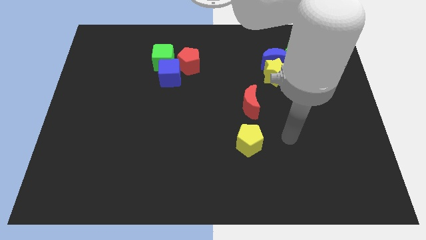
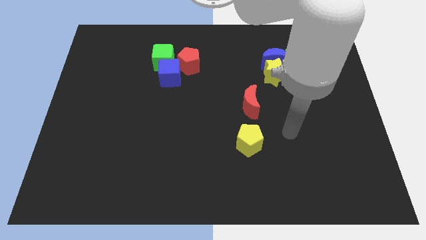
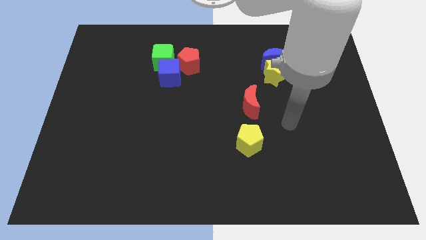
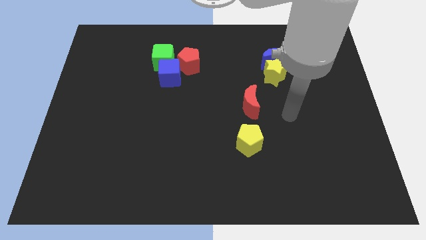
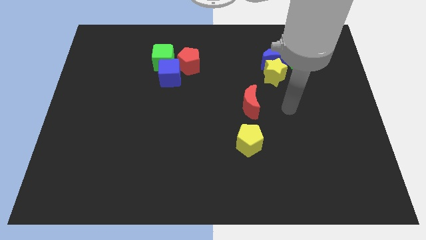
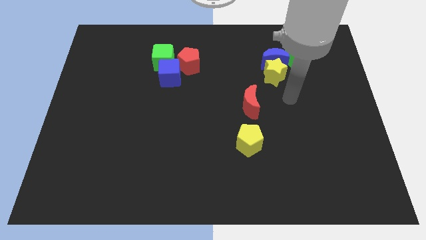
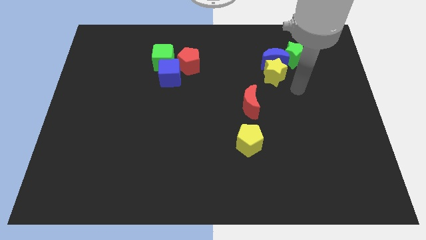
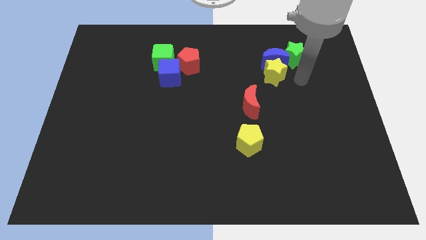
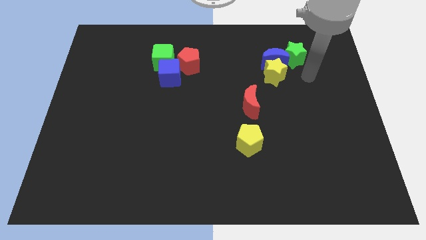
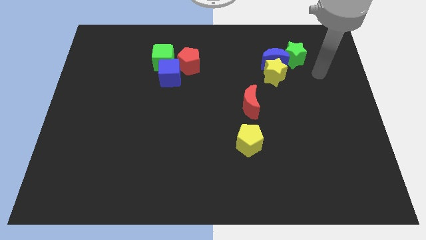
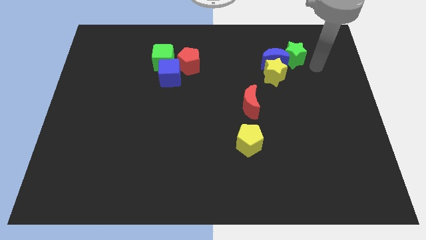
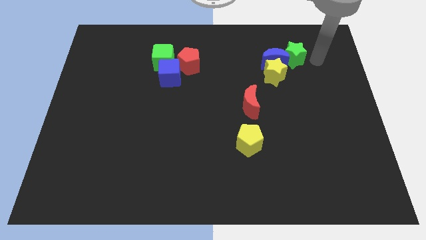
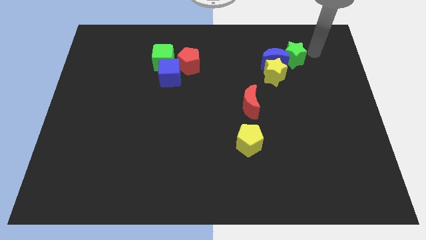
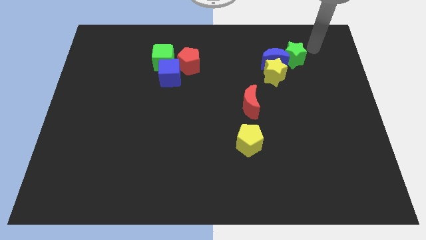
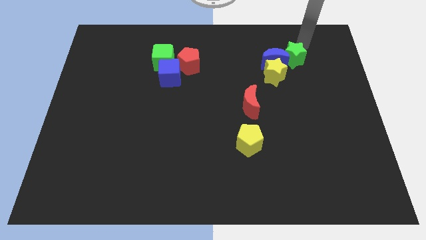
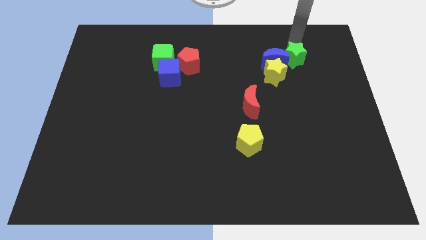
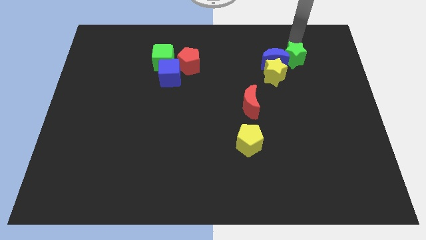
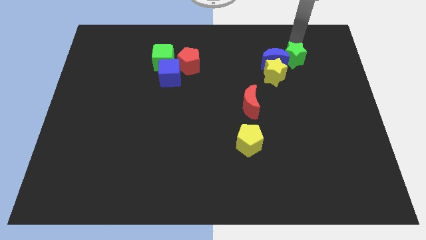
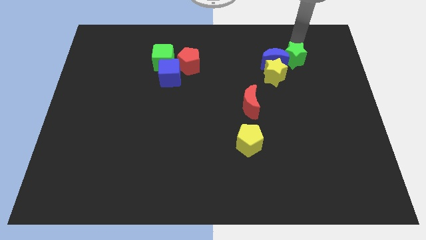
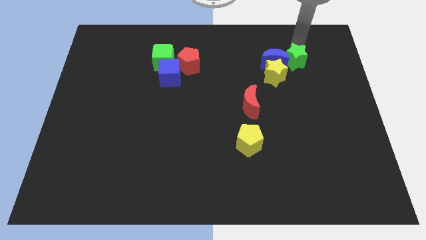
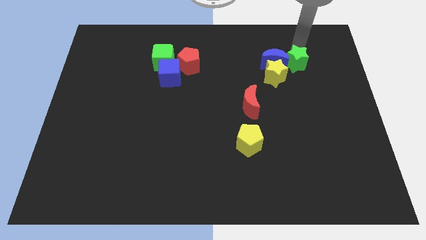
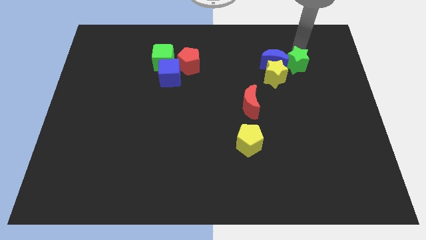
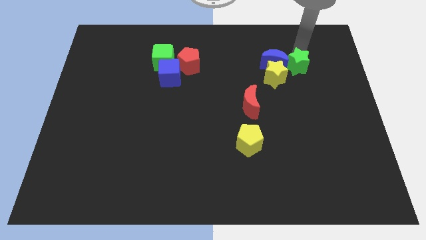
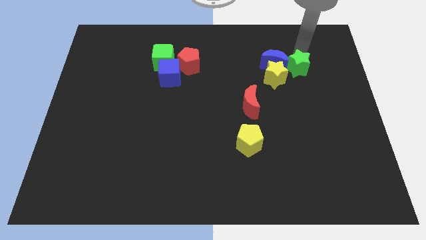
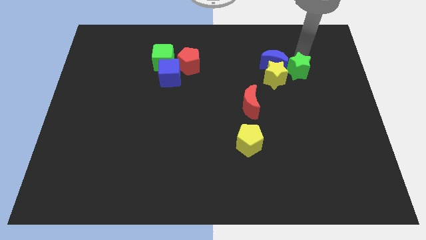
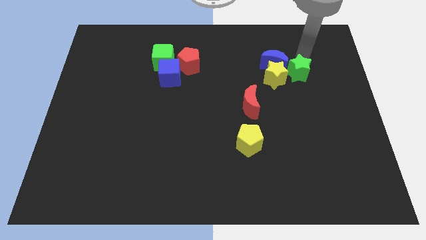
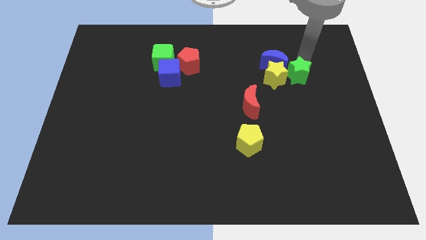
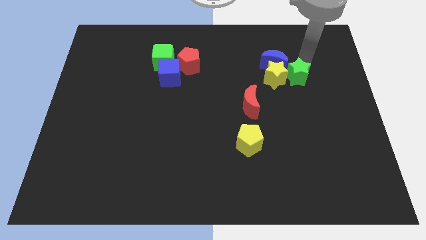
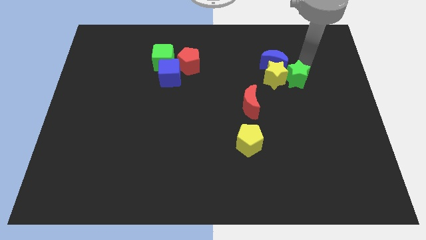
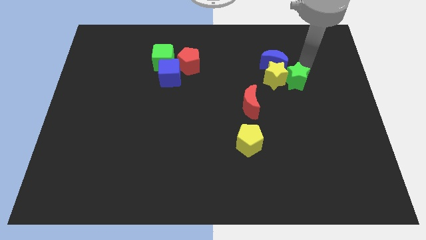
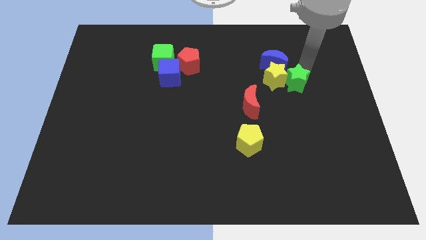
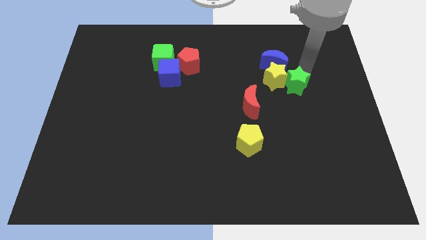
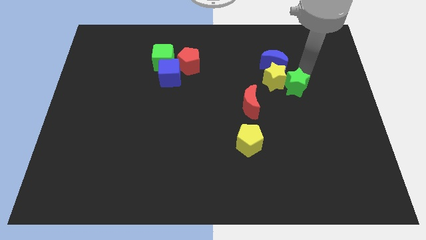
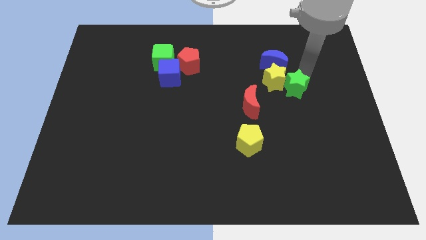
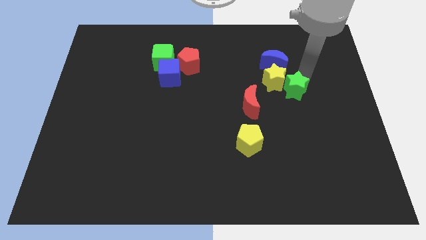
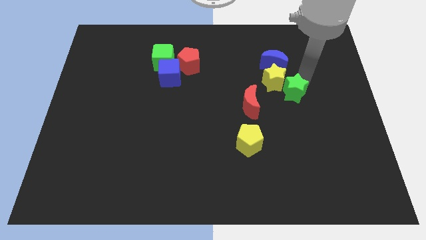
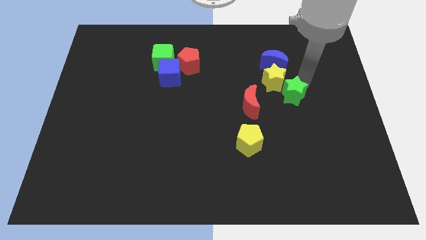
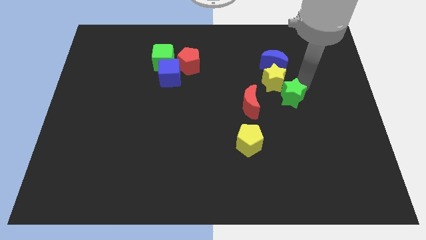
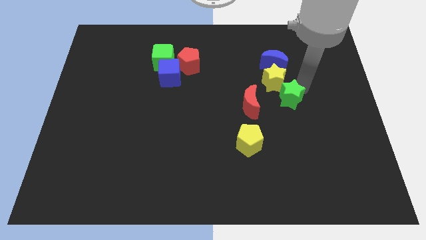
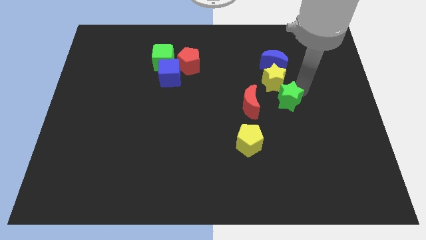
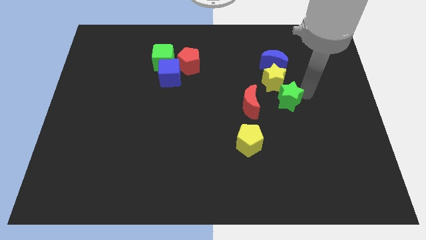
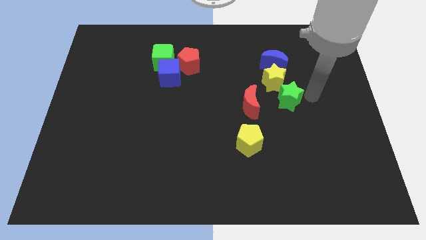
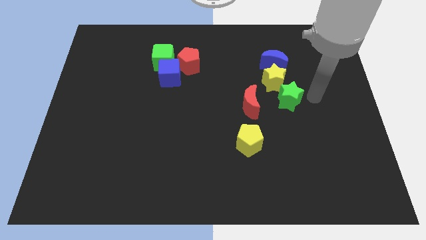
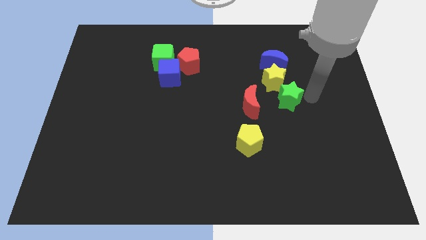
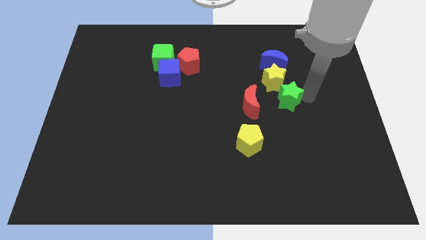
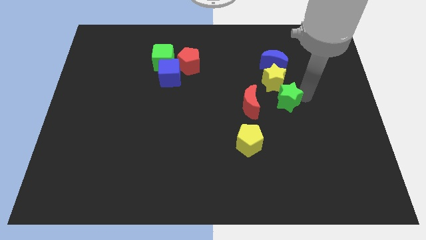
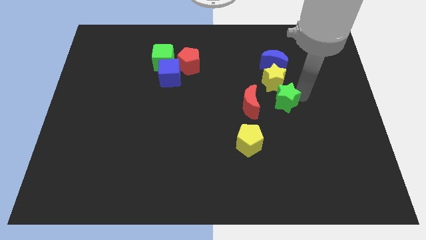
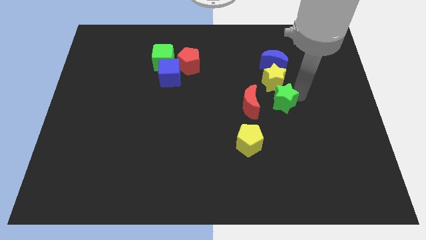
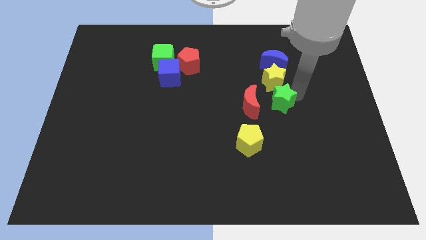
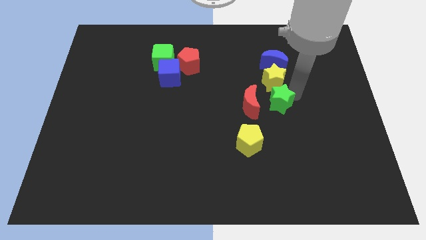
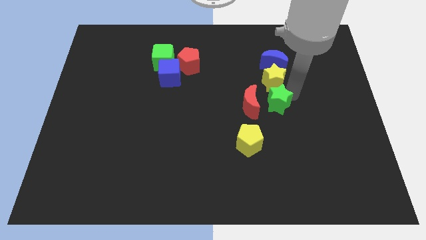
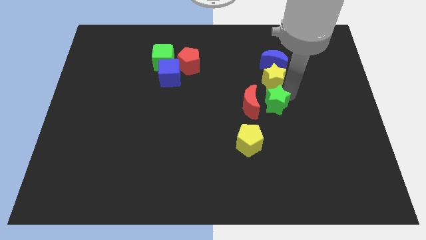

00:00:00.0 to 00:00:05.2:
slide the green star close to the red moon

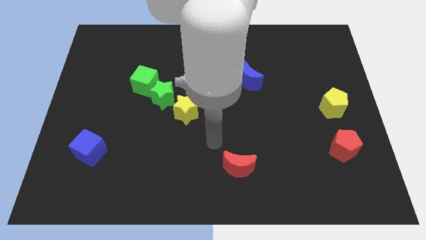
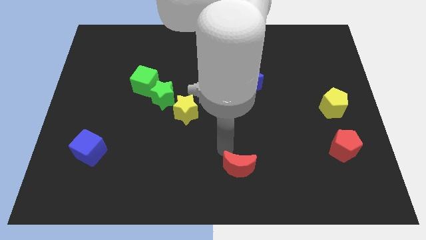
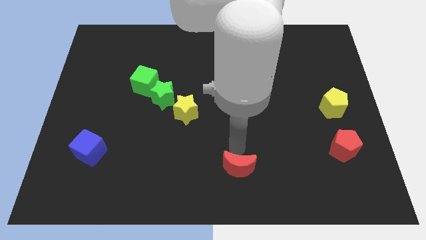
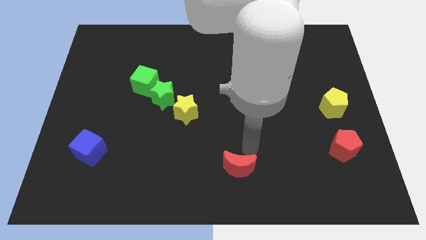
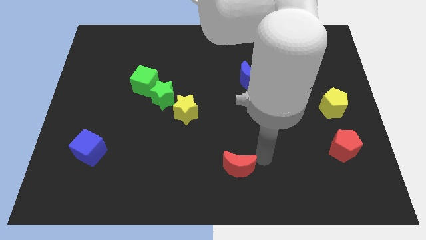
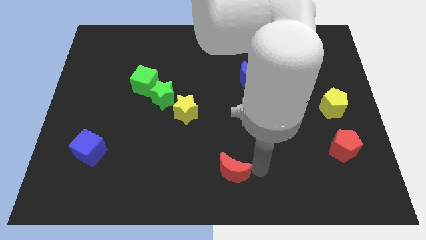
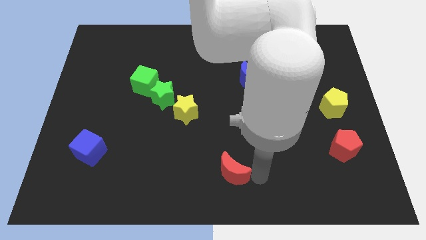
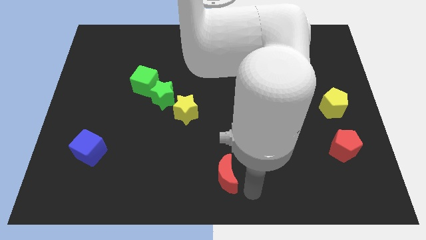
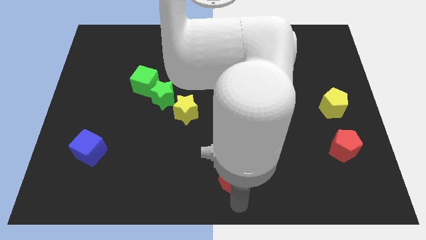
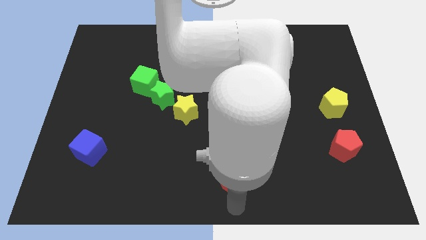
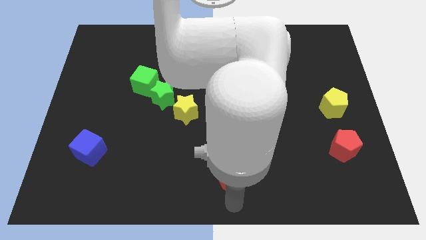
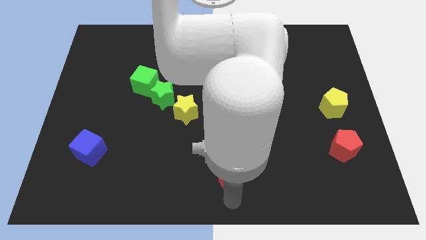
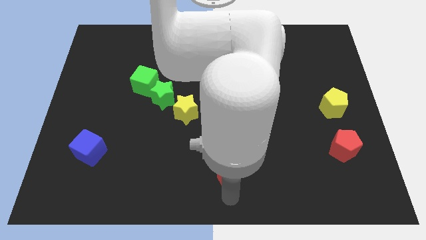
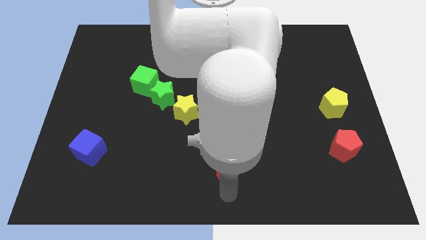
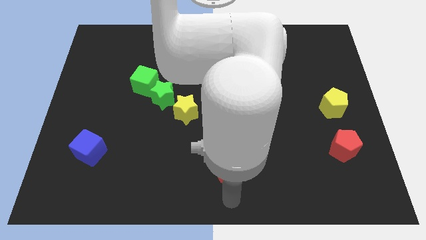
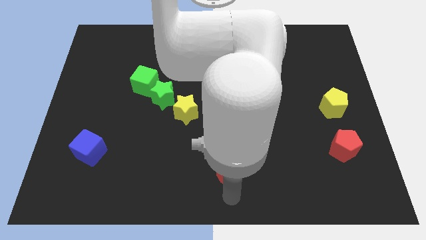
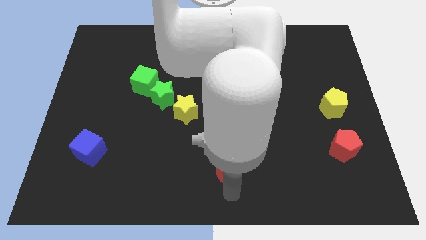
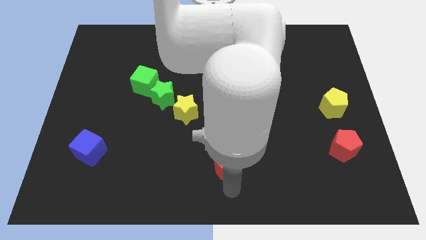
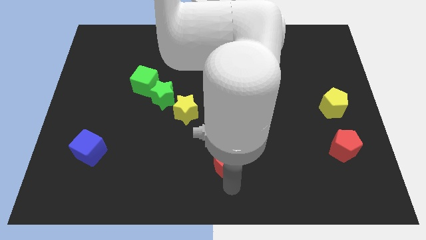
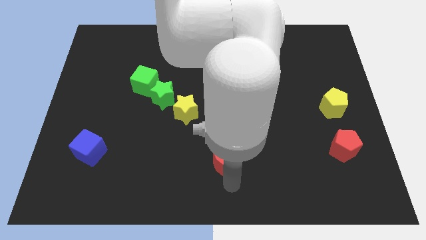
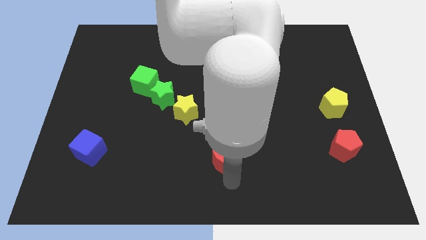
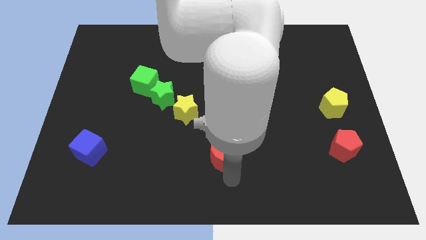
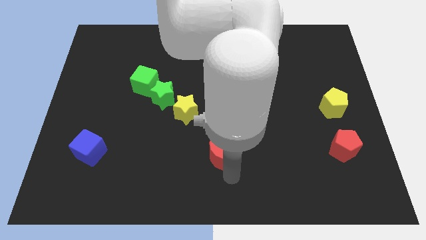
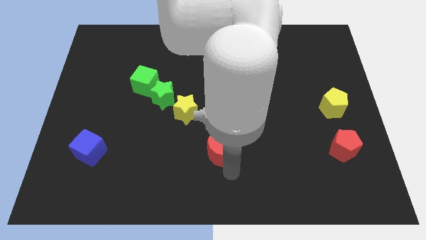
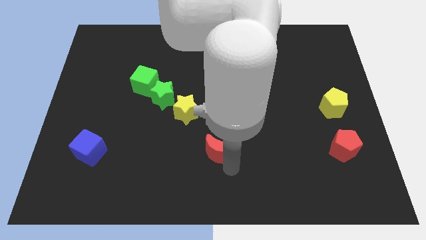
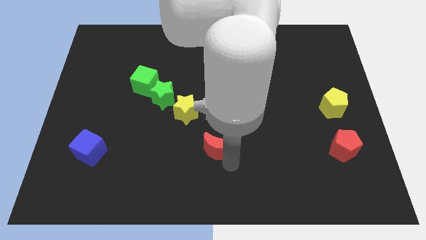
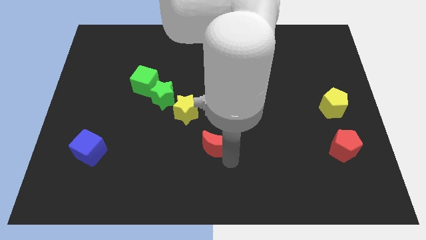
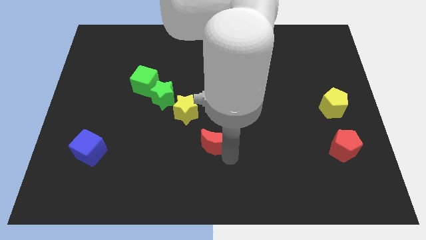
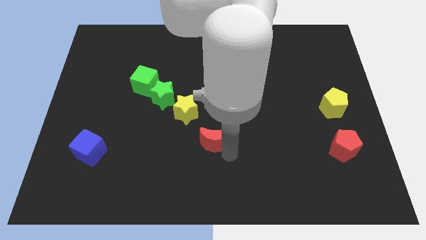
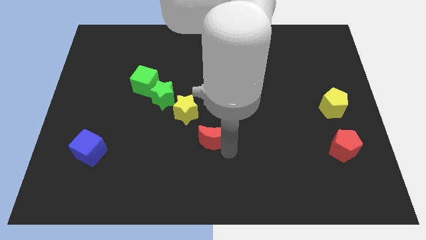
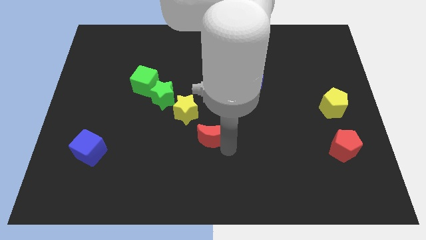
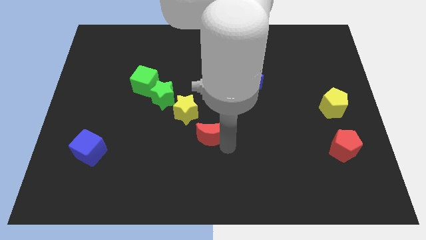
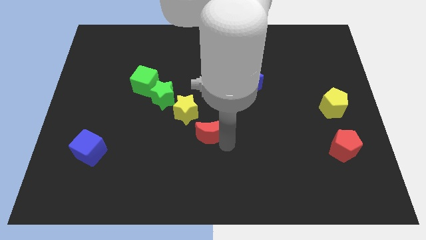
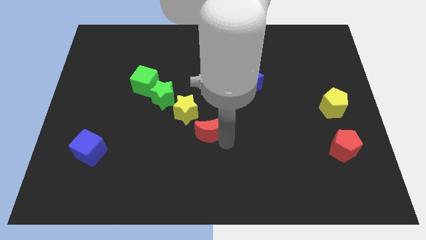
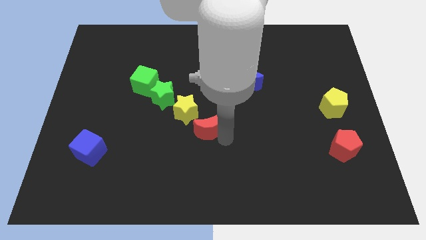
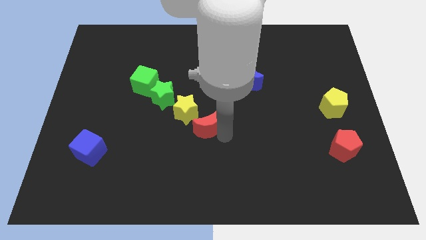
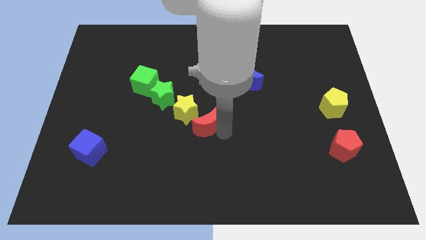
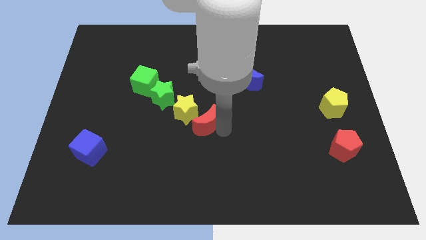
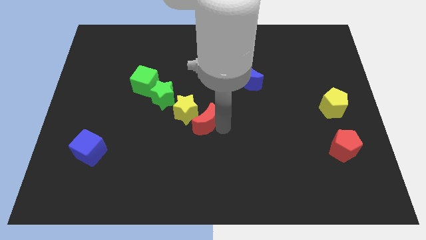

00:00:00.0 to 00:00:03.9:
slide the red moon next to the yellow star
